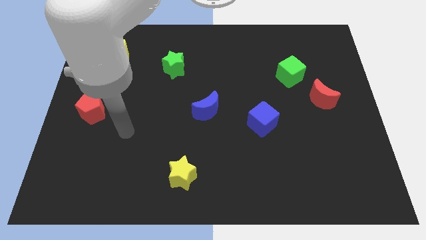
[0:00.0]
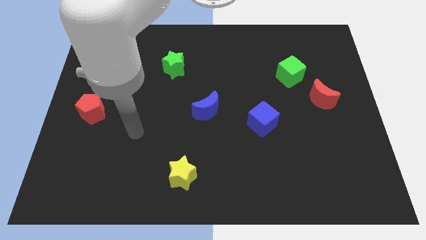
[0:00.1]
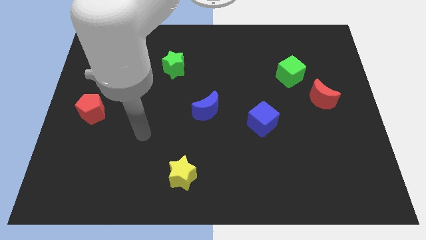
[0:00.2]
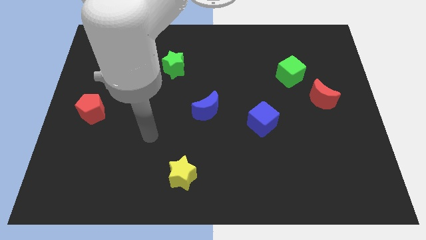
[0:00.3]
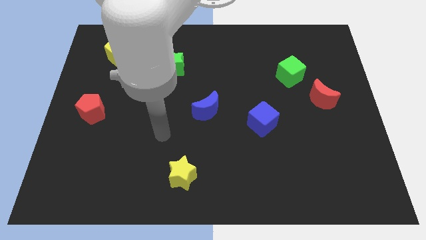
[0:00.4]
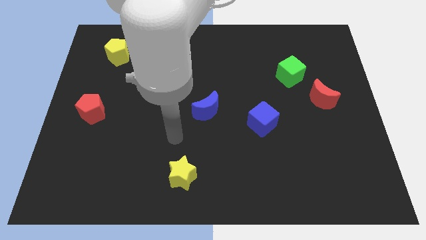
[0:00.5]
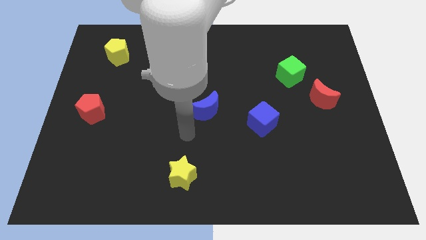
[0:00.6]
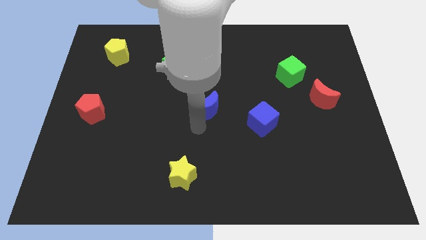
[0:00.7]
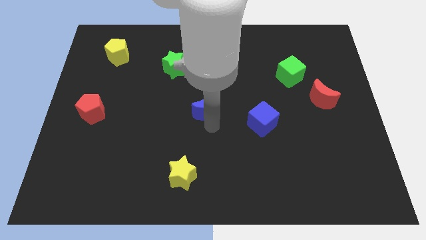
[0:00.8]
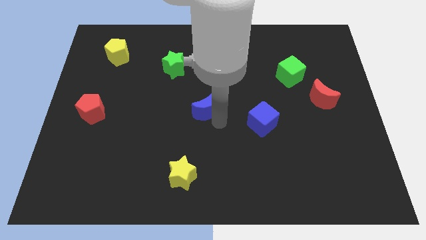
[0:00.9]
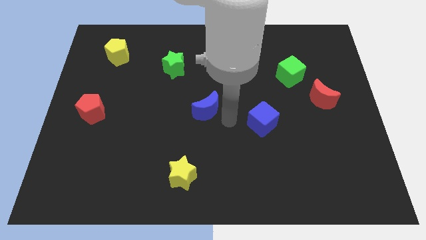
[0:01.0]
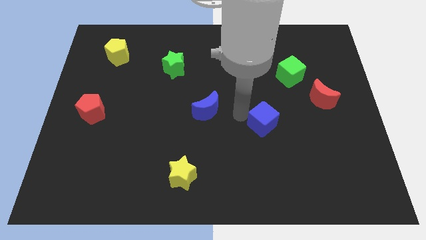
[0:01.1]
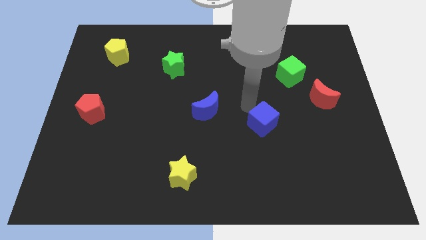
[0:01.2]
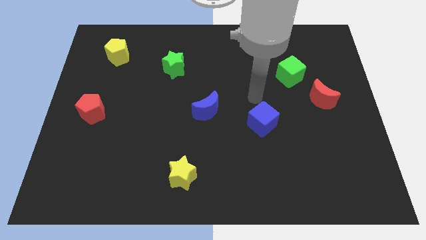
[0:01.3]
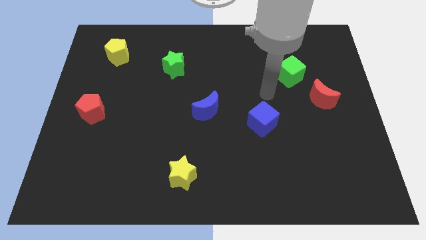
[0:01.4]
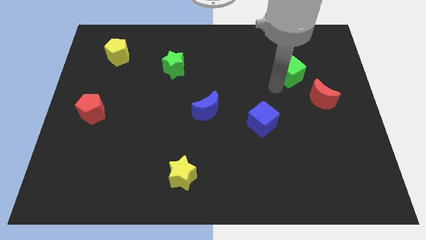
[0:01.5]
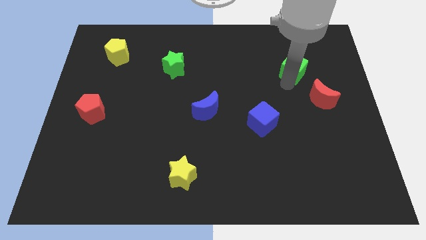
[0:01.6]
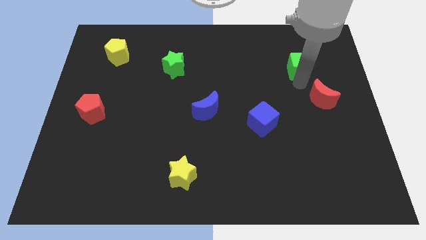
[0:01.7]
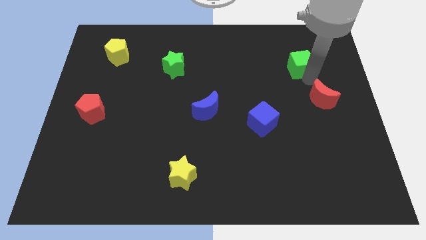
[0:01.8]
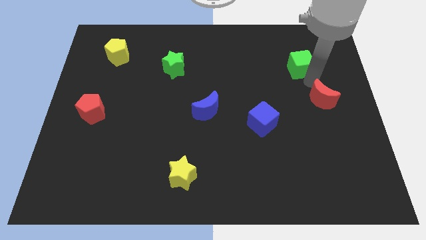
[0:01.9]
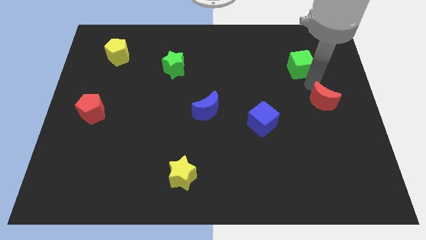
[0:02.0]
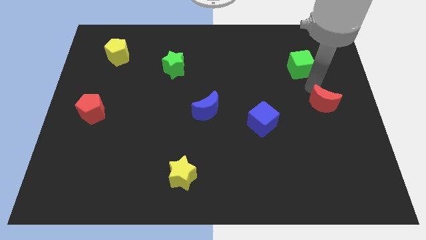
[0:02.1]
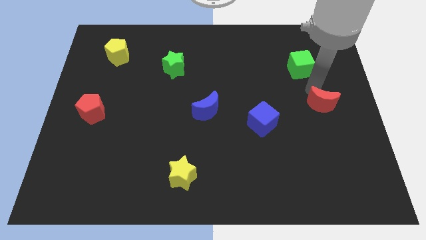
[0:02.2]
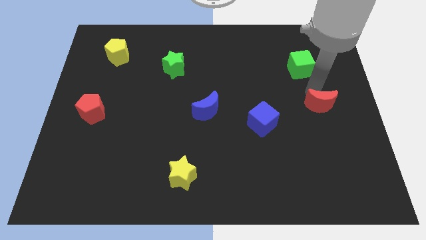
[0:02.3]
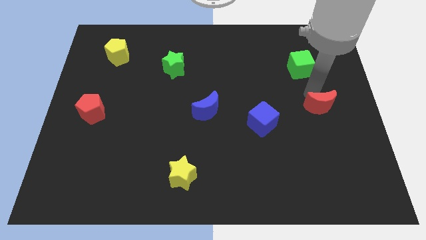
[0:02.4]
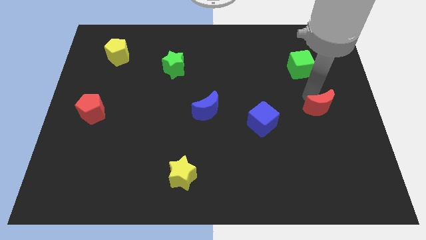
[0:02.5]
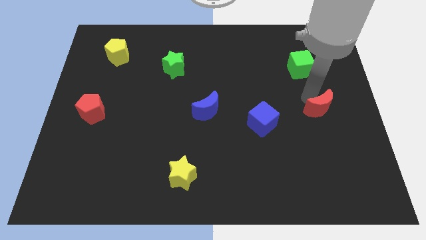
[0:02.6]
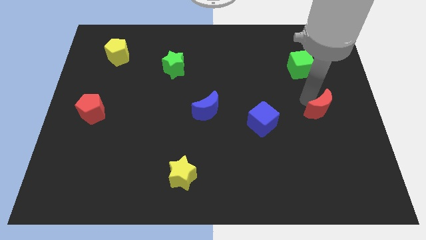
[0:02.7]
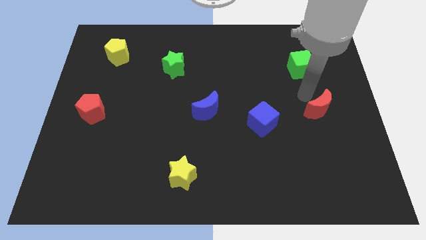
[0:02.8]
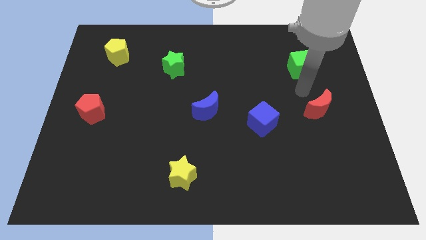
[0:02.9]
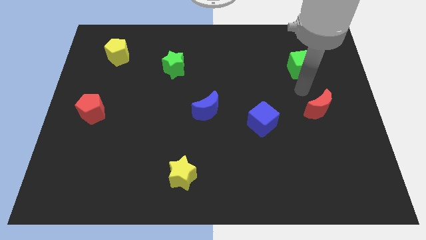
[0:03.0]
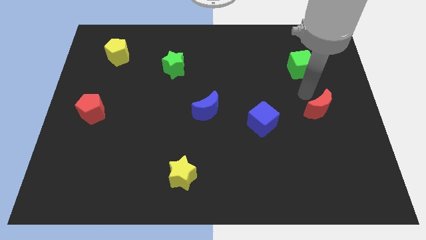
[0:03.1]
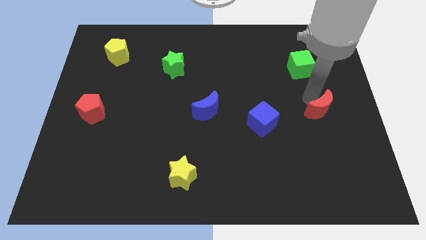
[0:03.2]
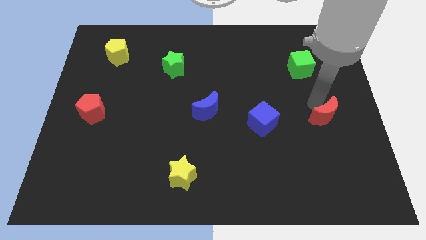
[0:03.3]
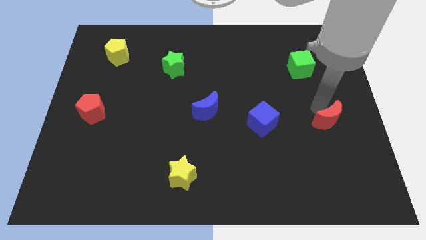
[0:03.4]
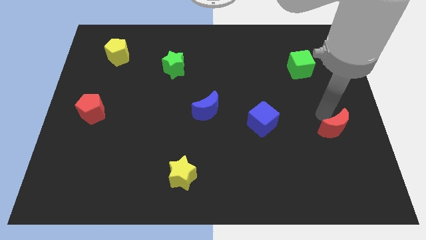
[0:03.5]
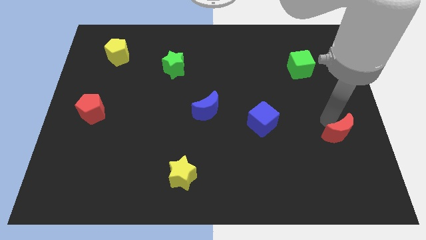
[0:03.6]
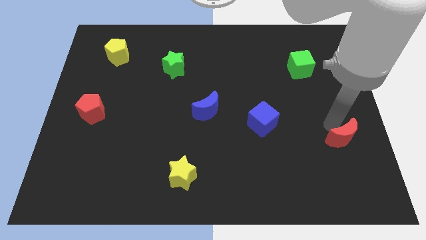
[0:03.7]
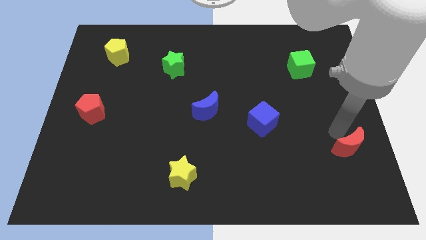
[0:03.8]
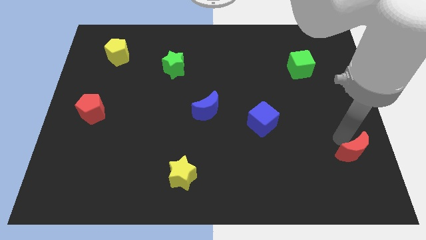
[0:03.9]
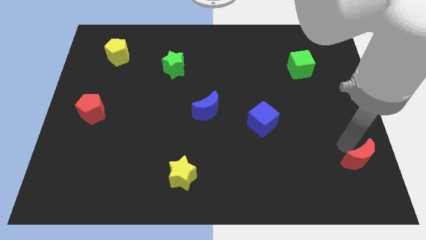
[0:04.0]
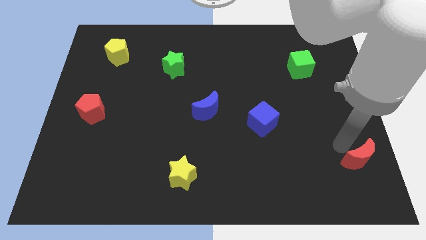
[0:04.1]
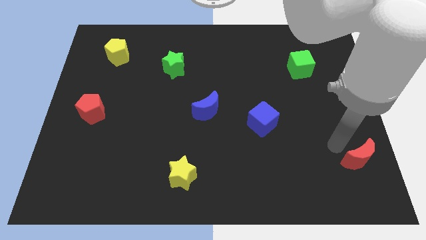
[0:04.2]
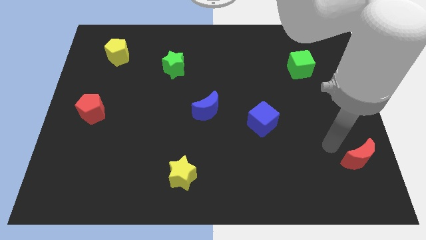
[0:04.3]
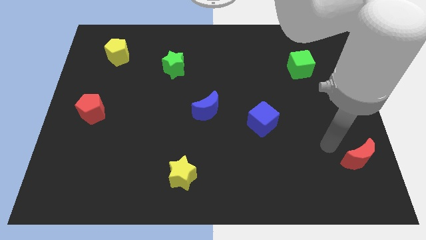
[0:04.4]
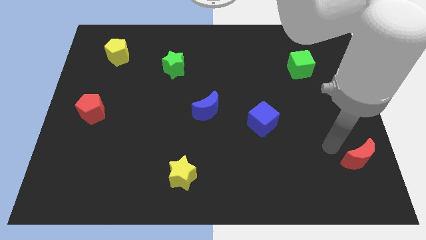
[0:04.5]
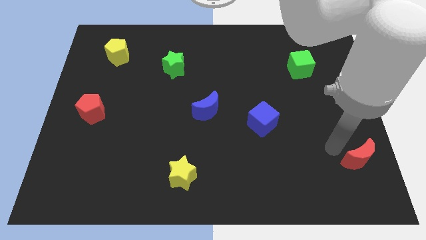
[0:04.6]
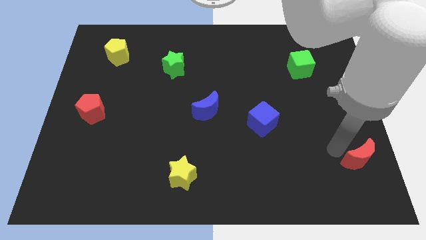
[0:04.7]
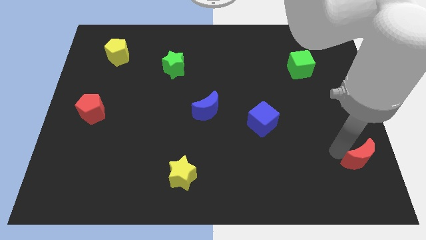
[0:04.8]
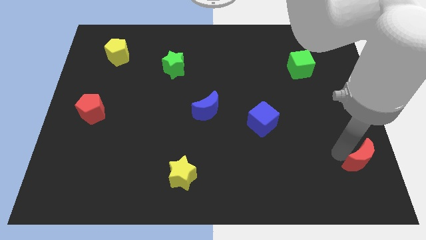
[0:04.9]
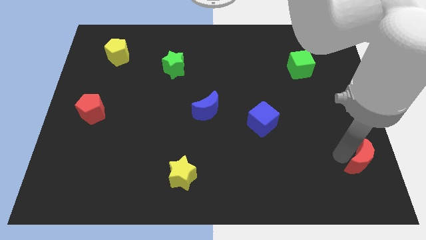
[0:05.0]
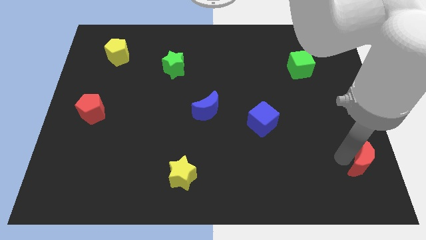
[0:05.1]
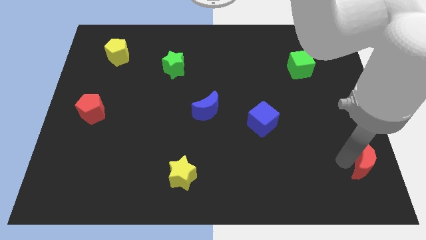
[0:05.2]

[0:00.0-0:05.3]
slide the red moon to the bottom right of the board
